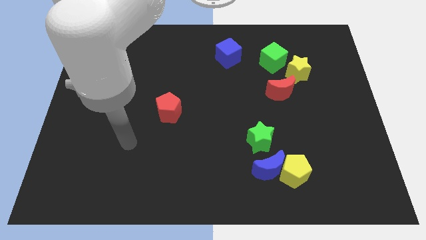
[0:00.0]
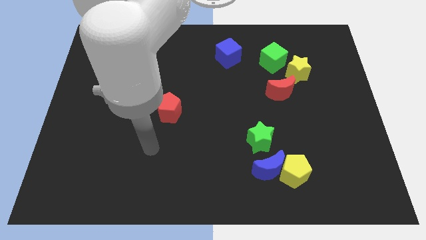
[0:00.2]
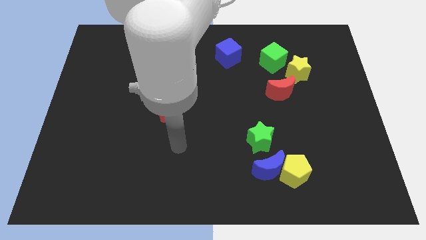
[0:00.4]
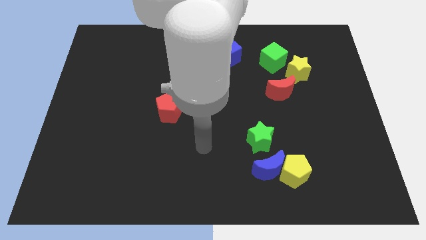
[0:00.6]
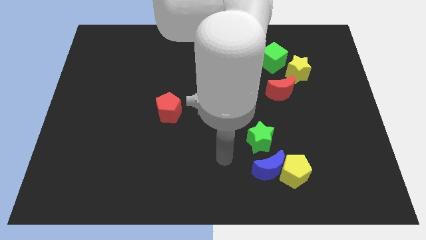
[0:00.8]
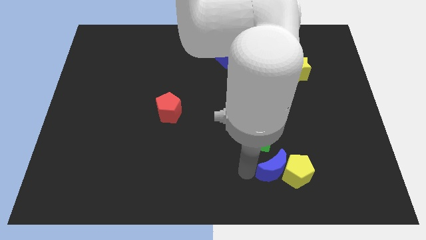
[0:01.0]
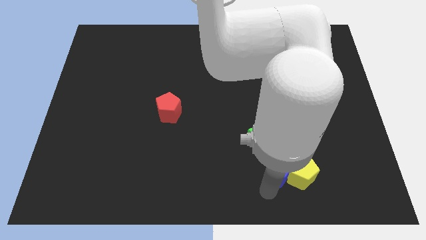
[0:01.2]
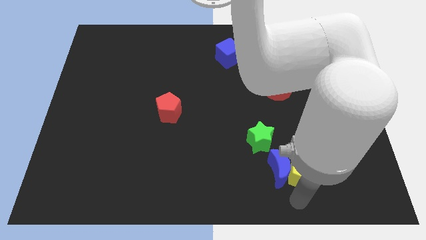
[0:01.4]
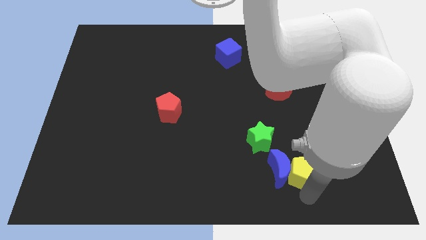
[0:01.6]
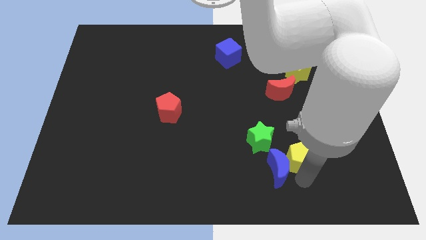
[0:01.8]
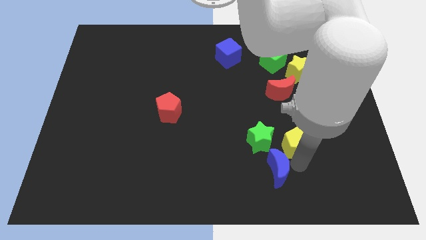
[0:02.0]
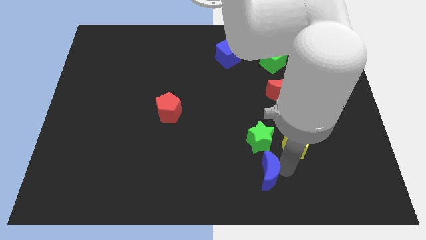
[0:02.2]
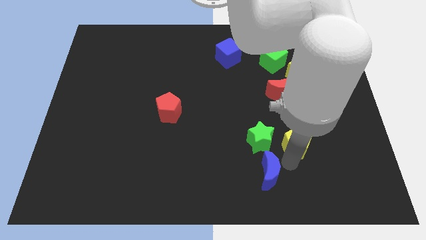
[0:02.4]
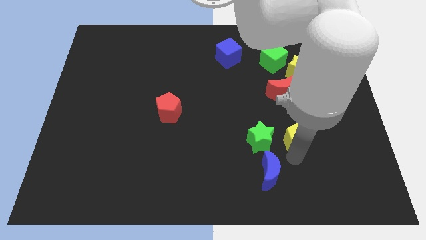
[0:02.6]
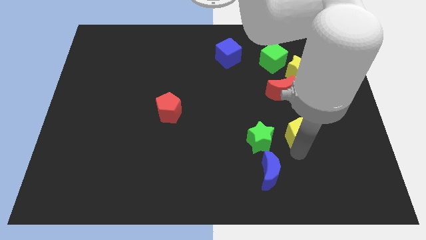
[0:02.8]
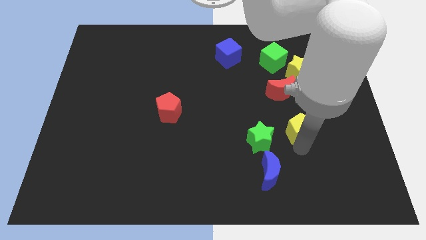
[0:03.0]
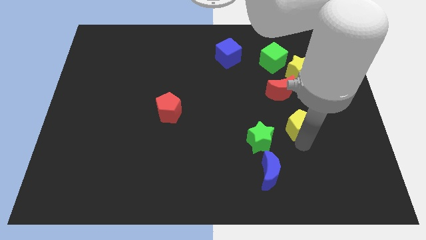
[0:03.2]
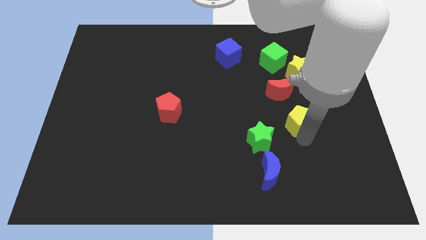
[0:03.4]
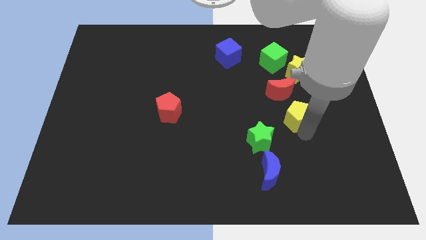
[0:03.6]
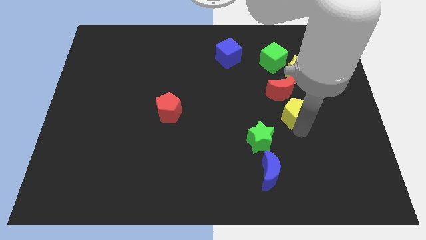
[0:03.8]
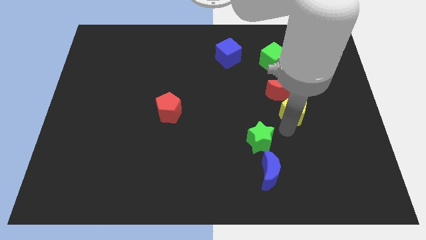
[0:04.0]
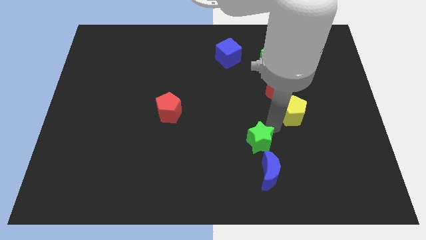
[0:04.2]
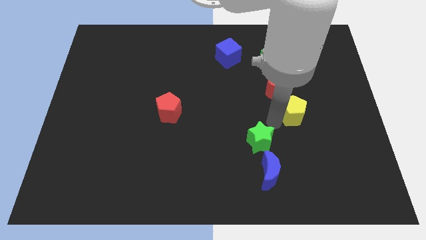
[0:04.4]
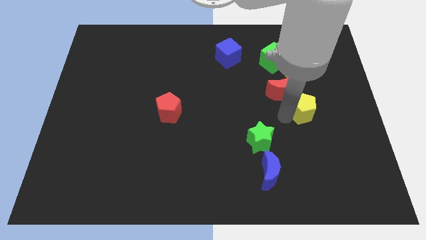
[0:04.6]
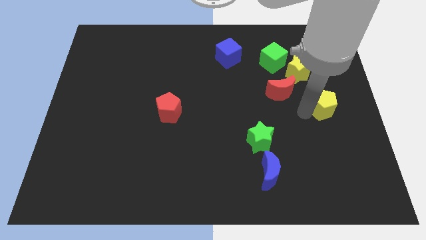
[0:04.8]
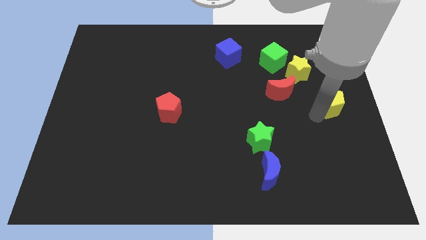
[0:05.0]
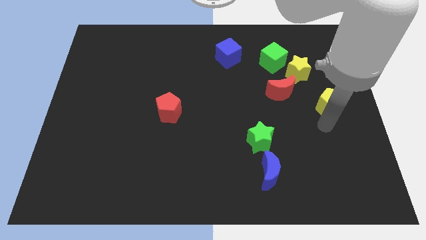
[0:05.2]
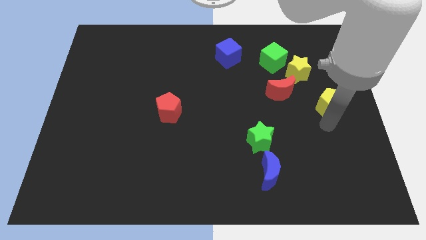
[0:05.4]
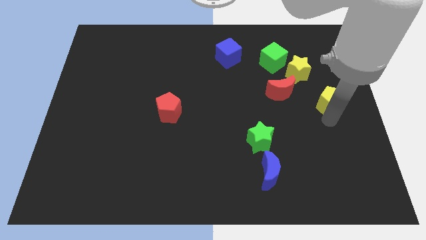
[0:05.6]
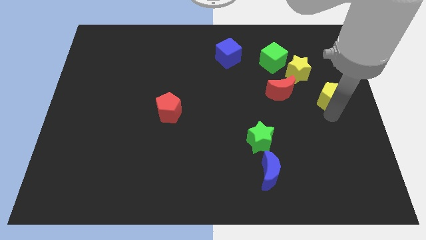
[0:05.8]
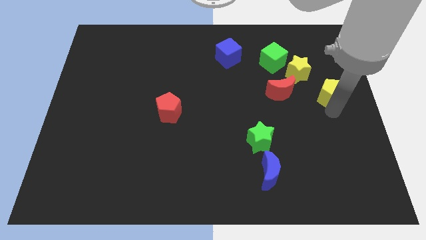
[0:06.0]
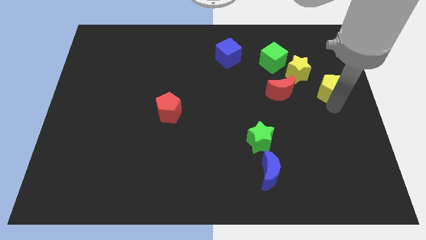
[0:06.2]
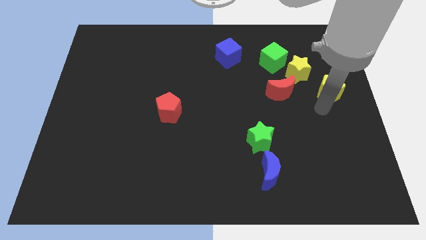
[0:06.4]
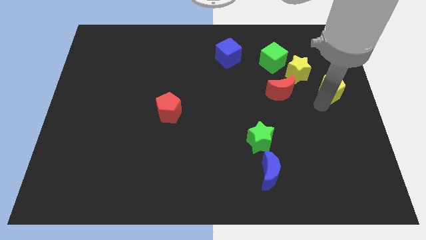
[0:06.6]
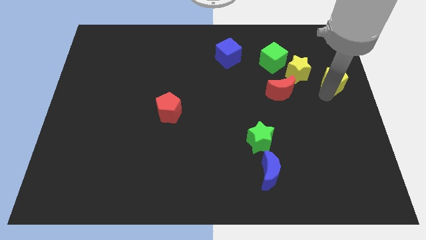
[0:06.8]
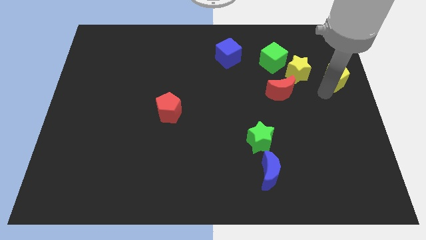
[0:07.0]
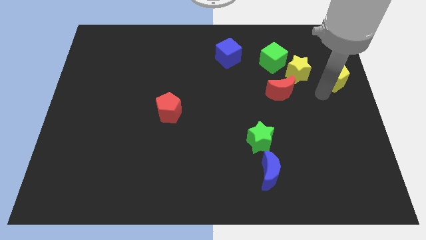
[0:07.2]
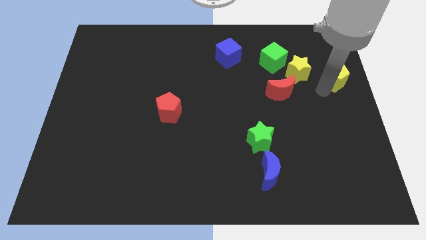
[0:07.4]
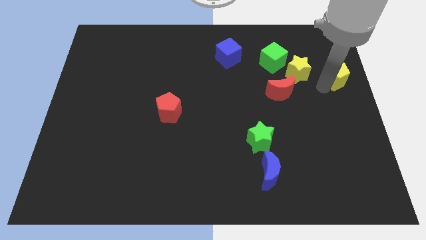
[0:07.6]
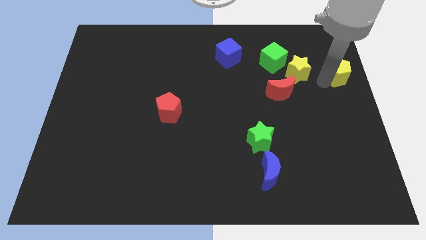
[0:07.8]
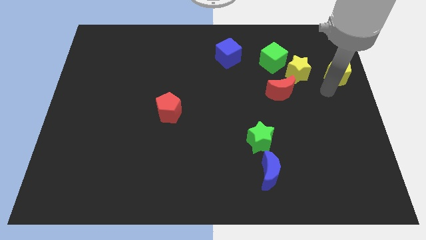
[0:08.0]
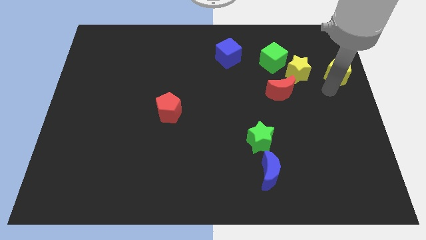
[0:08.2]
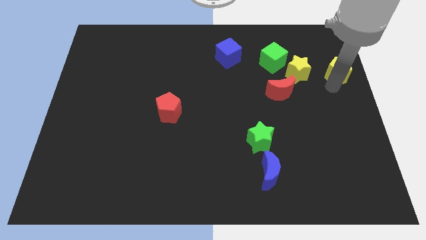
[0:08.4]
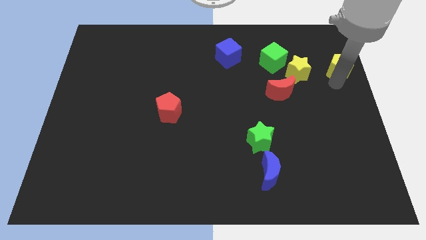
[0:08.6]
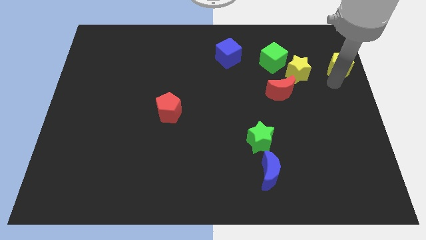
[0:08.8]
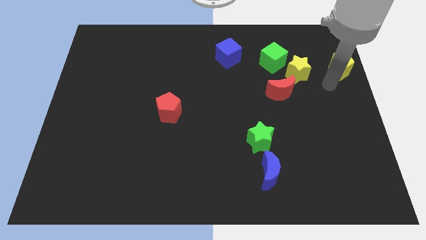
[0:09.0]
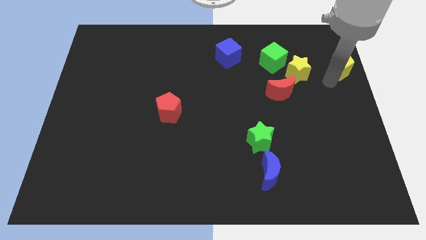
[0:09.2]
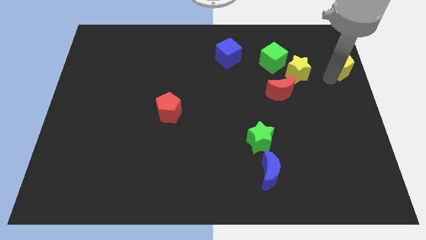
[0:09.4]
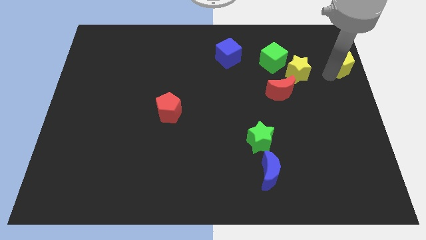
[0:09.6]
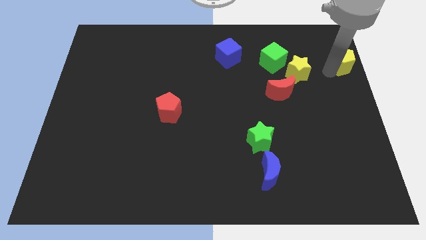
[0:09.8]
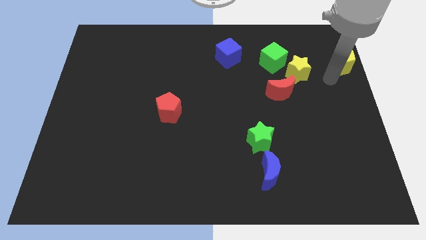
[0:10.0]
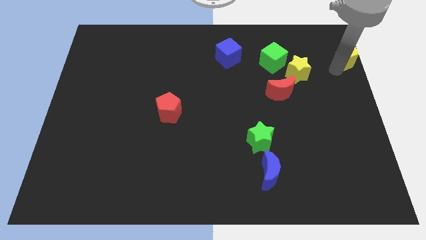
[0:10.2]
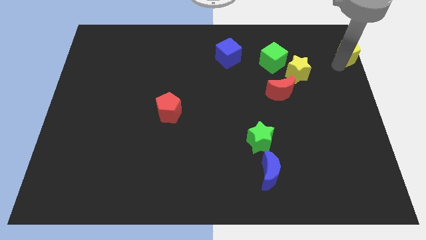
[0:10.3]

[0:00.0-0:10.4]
put the yellow pentagon to the top right corner

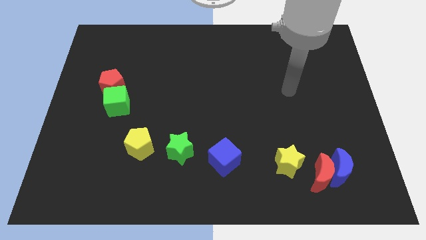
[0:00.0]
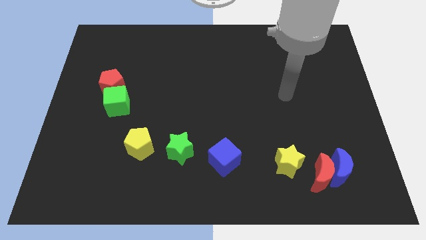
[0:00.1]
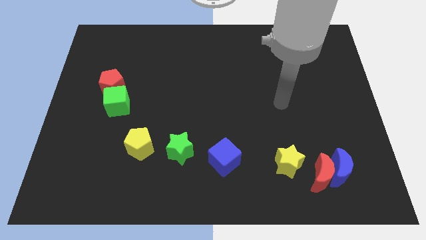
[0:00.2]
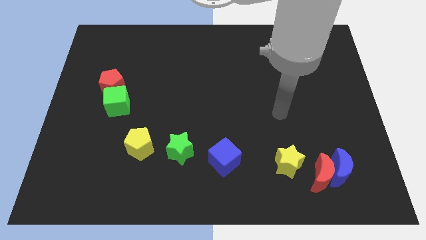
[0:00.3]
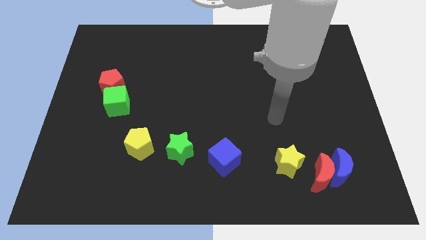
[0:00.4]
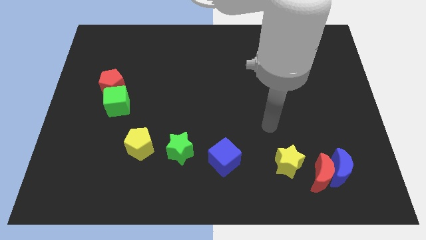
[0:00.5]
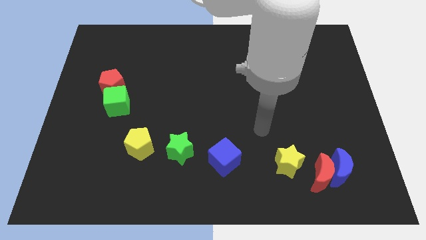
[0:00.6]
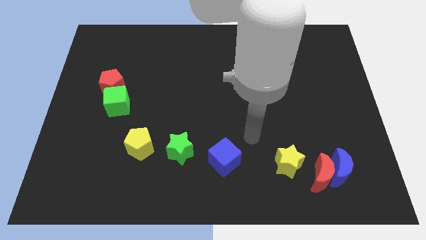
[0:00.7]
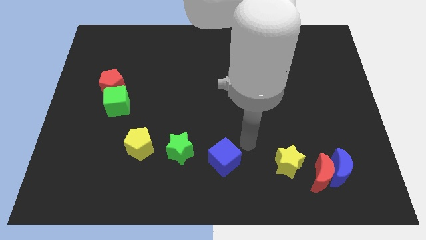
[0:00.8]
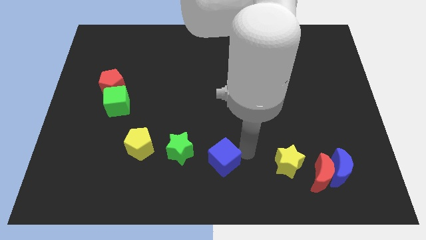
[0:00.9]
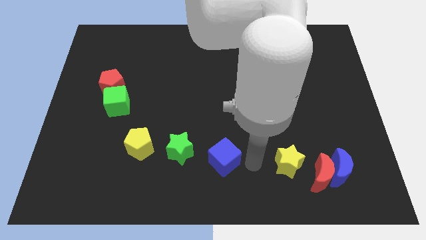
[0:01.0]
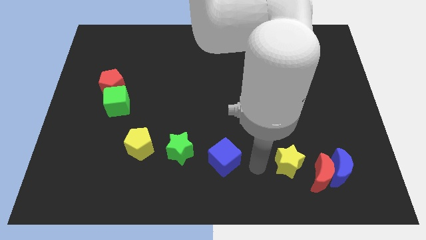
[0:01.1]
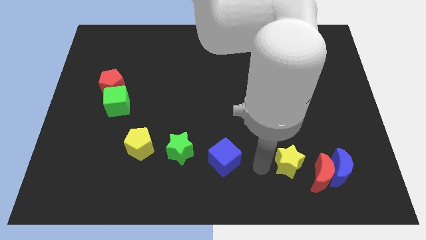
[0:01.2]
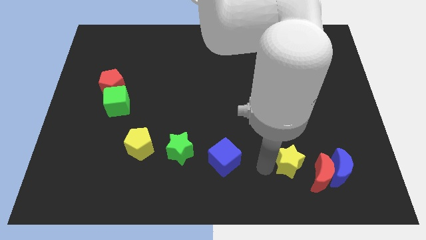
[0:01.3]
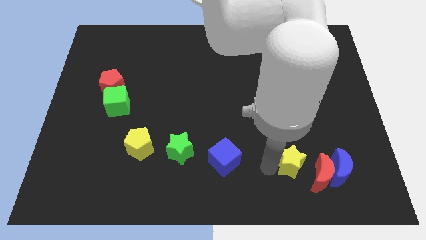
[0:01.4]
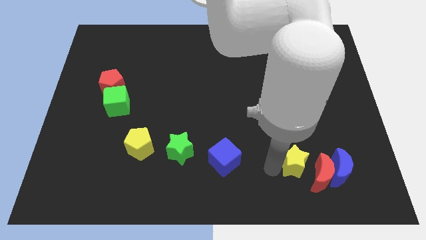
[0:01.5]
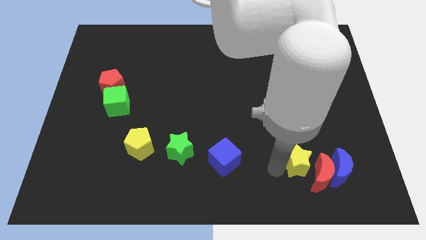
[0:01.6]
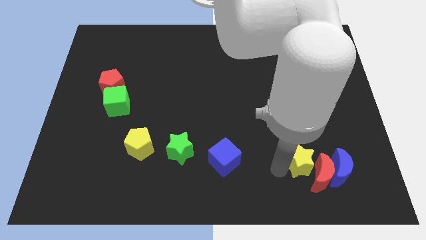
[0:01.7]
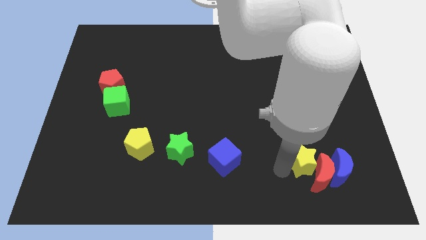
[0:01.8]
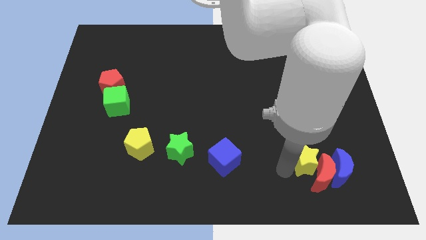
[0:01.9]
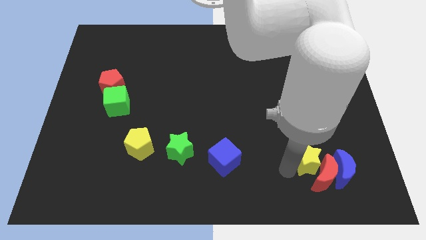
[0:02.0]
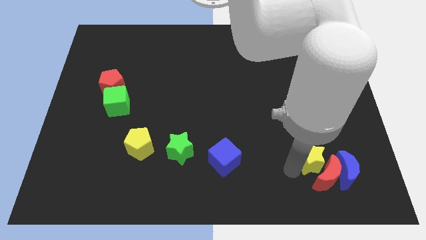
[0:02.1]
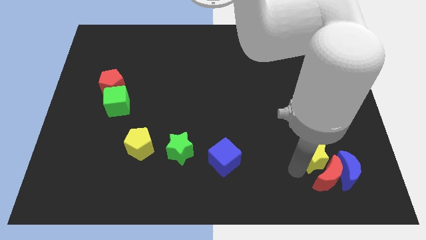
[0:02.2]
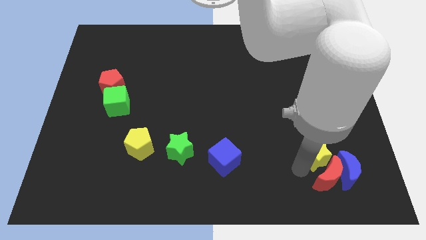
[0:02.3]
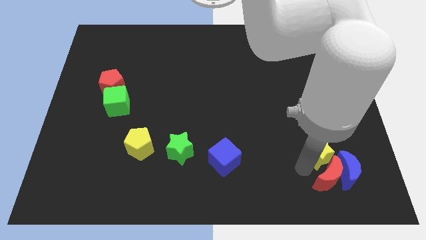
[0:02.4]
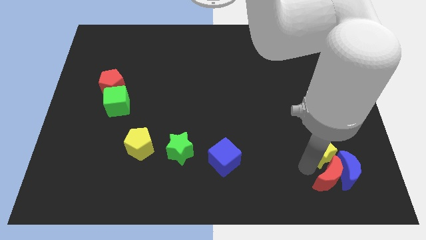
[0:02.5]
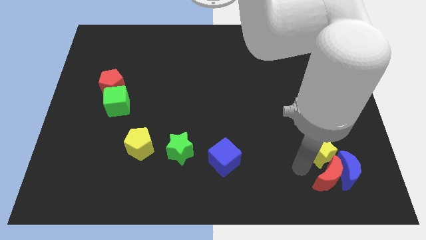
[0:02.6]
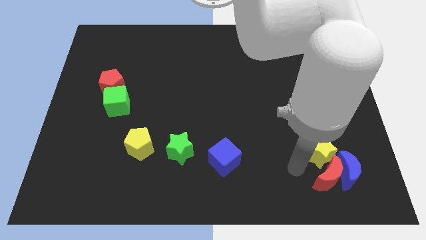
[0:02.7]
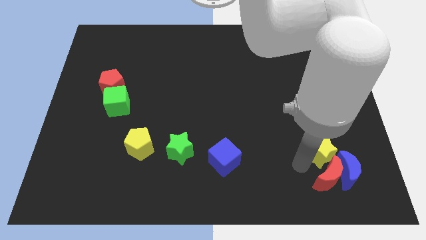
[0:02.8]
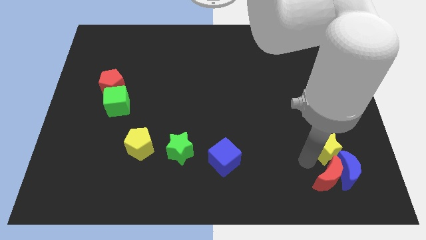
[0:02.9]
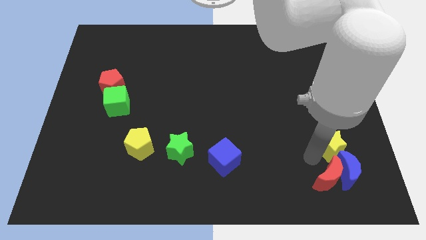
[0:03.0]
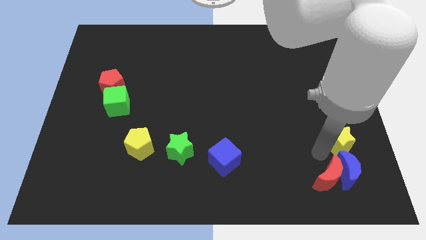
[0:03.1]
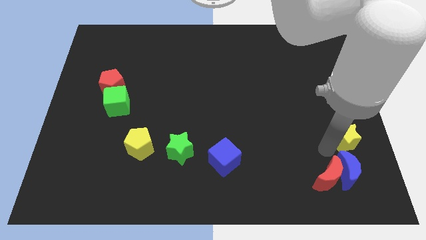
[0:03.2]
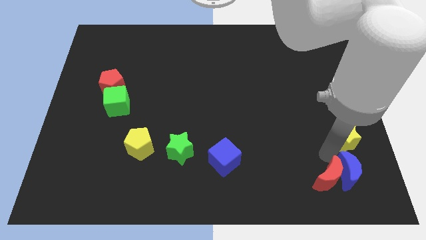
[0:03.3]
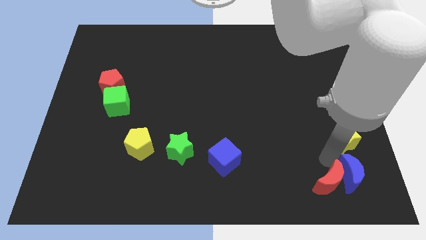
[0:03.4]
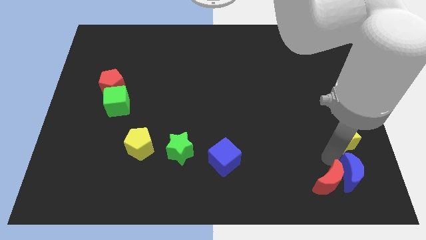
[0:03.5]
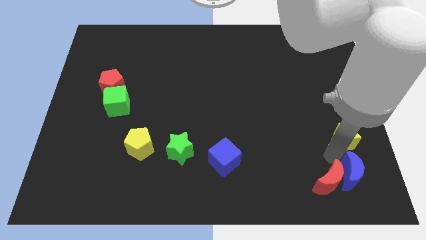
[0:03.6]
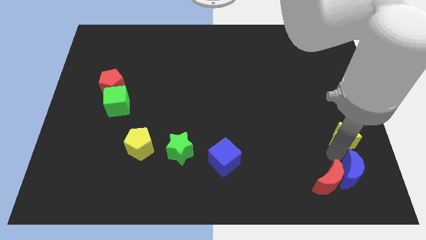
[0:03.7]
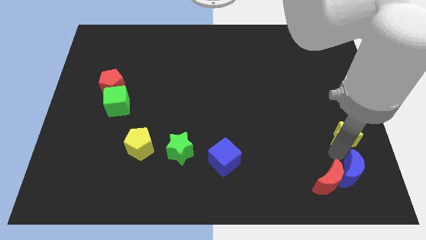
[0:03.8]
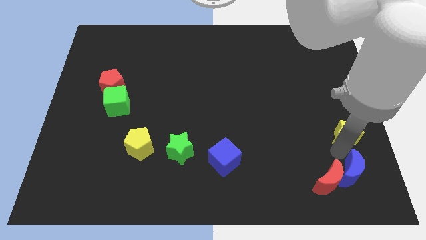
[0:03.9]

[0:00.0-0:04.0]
put the yellow star to the right side of the board
